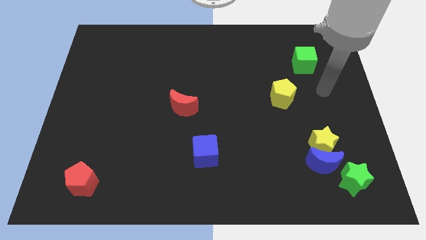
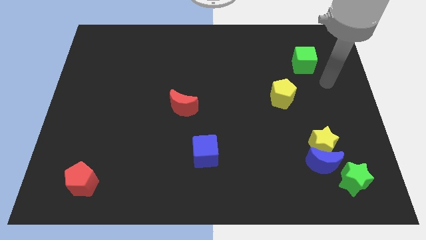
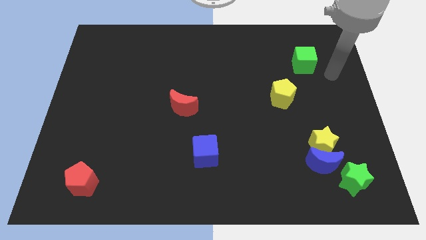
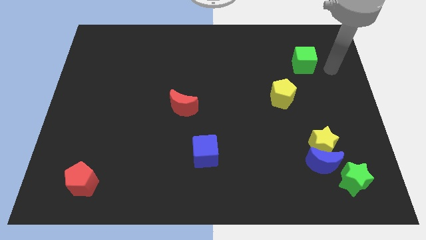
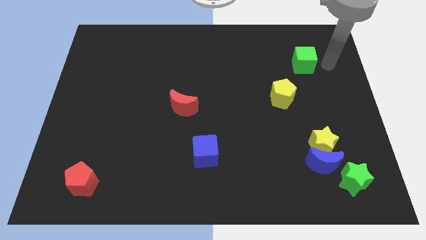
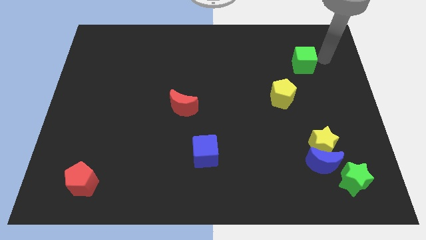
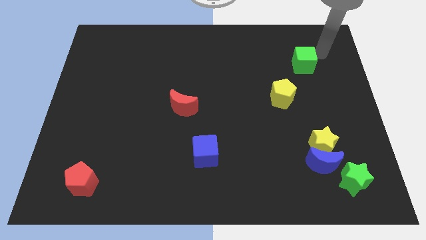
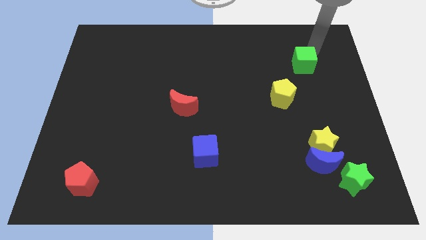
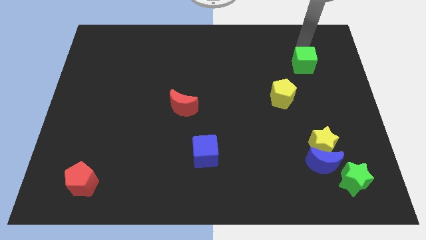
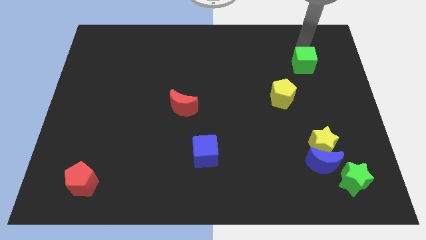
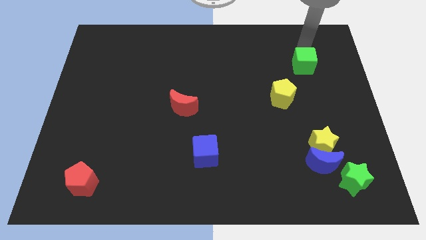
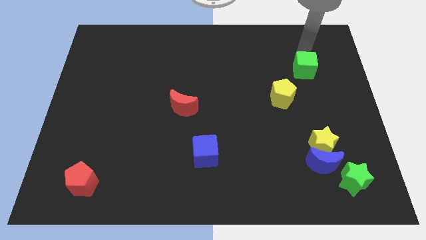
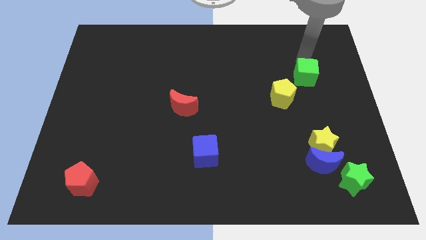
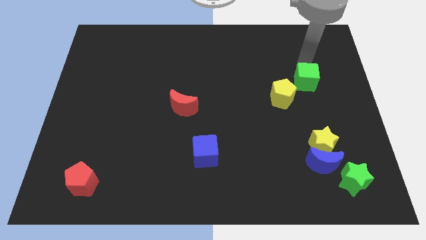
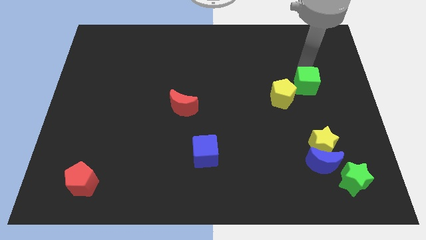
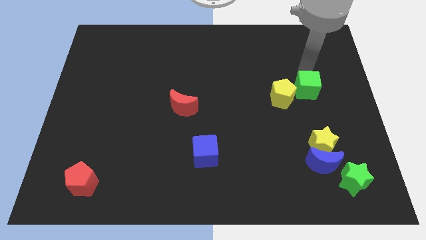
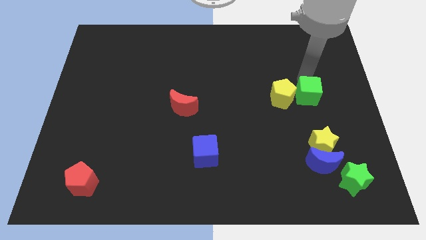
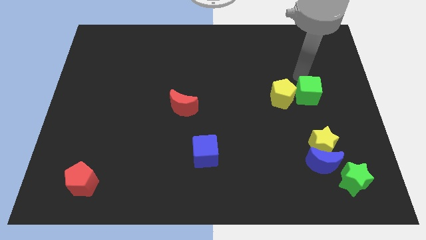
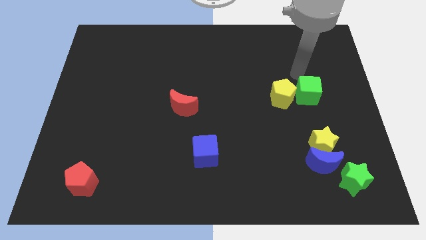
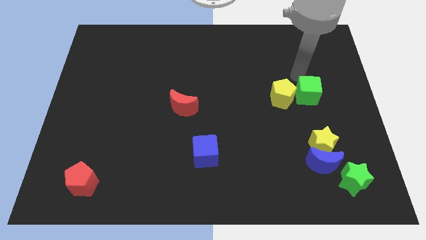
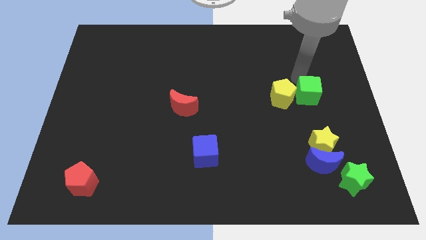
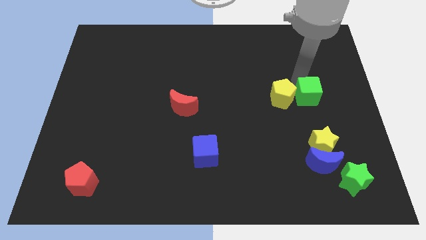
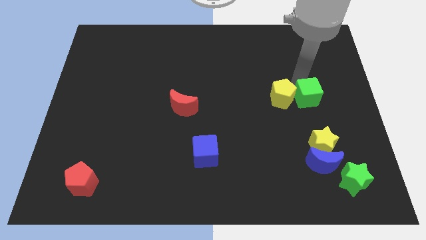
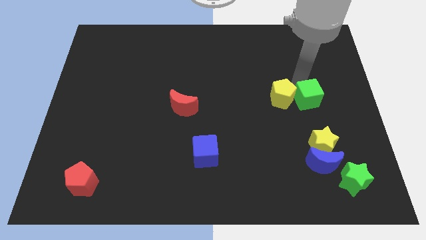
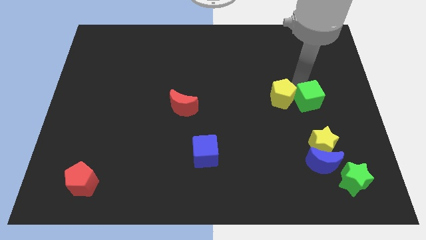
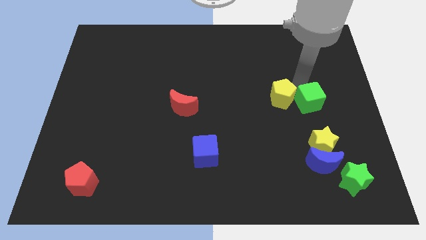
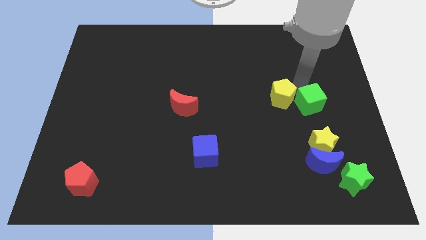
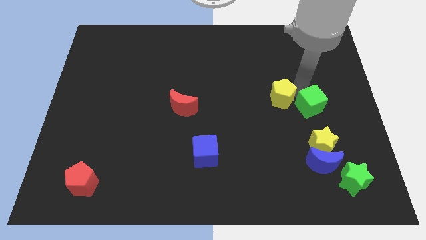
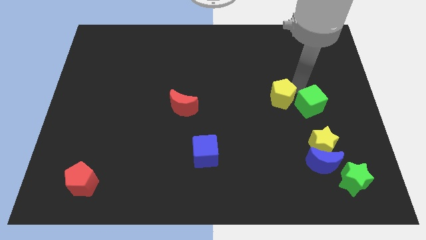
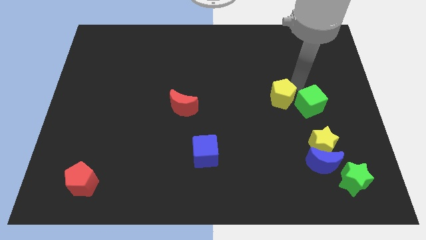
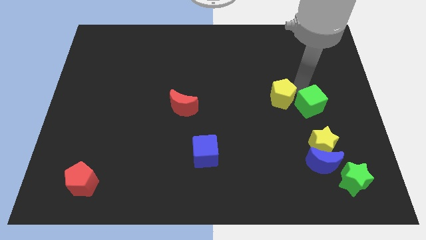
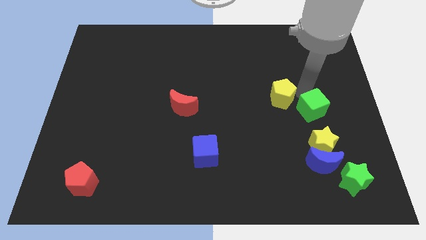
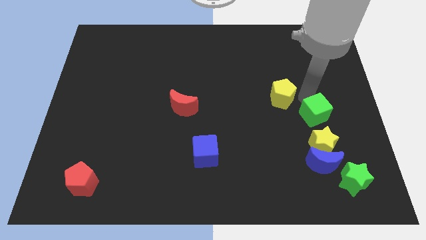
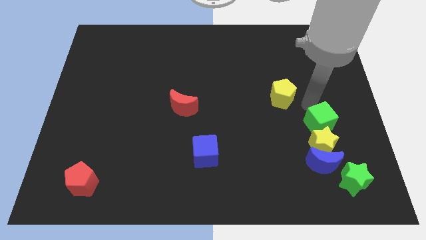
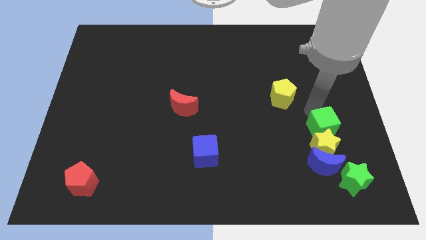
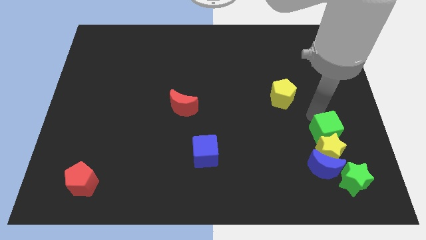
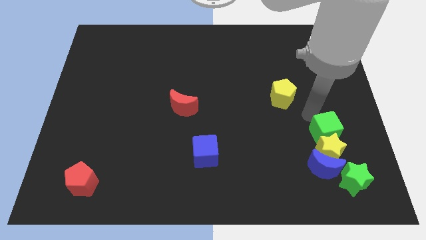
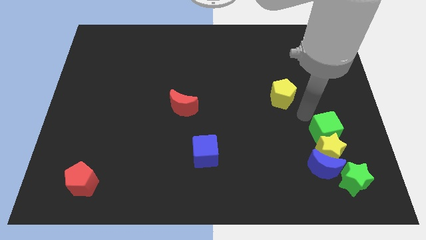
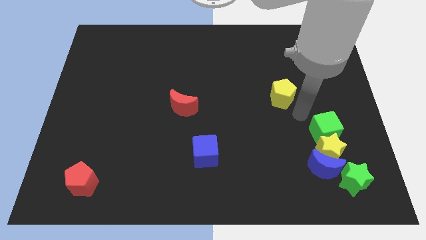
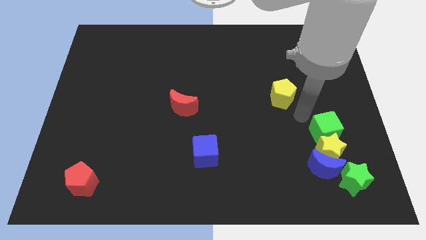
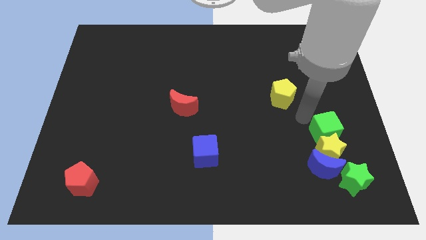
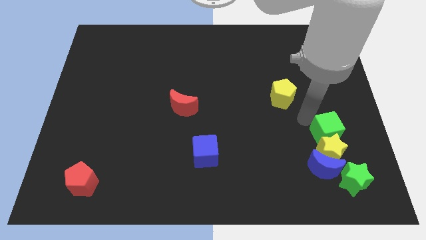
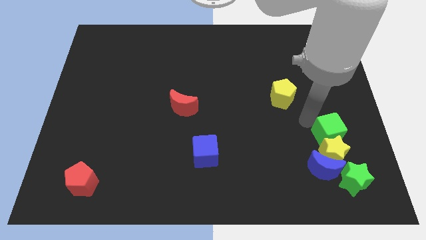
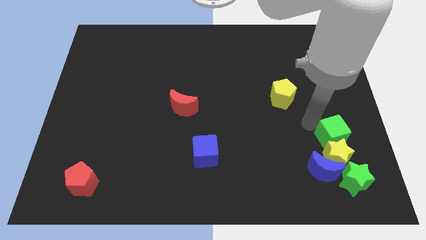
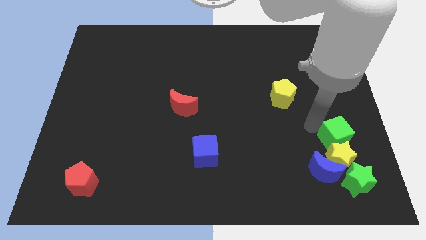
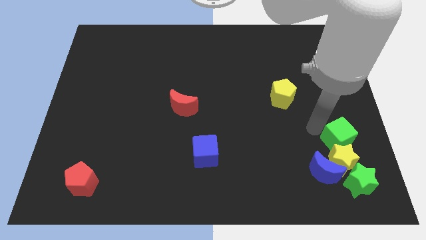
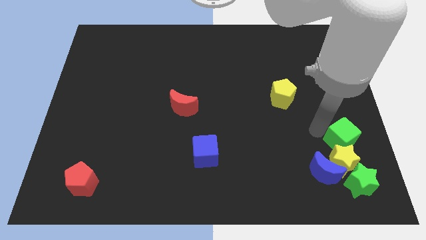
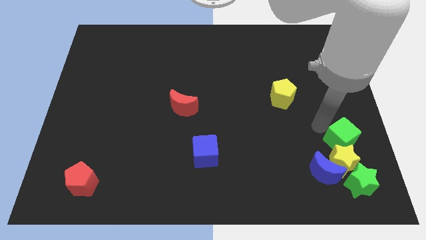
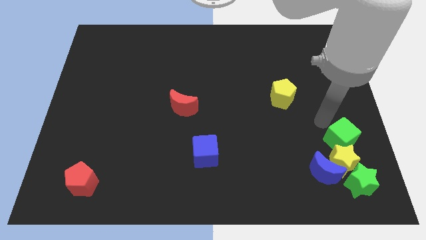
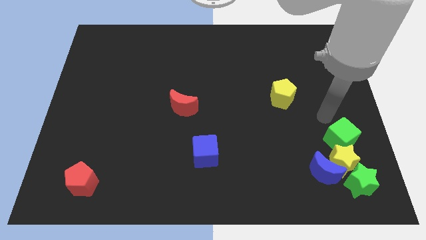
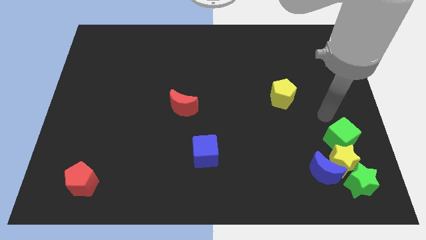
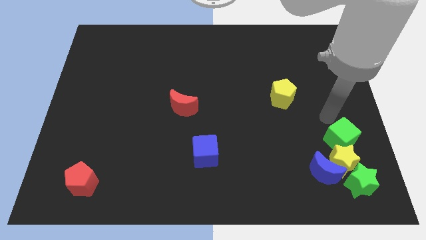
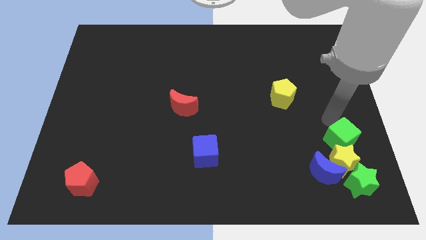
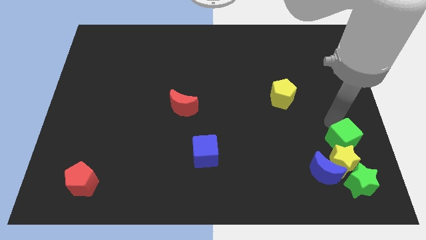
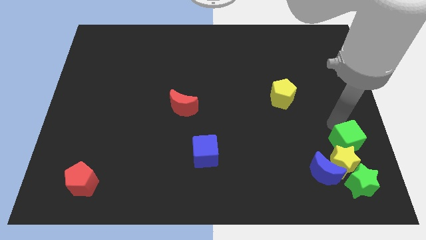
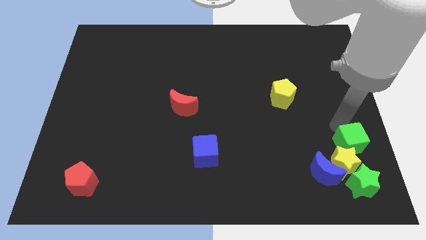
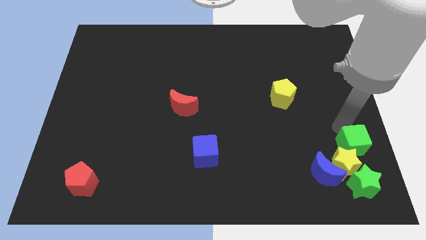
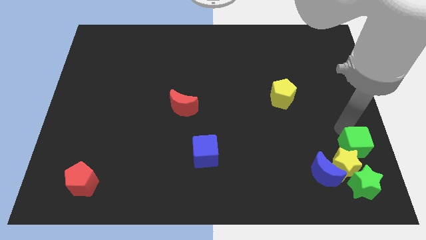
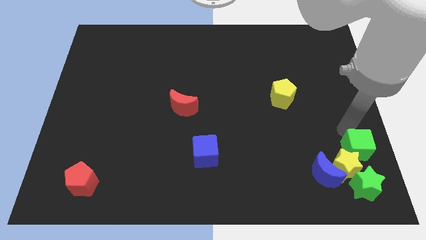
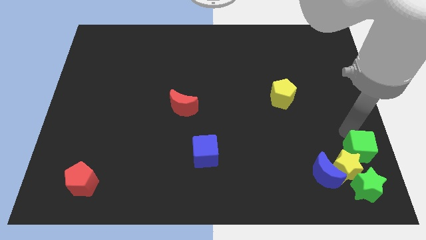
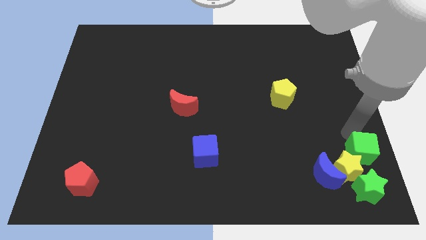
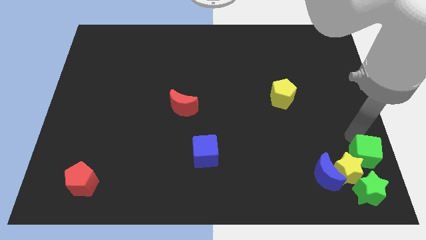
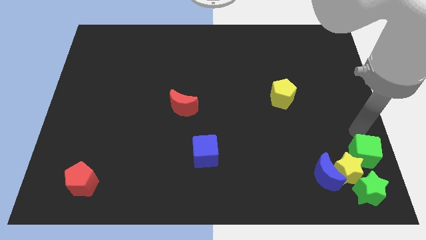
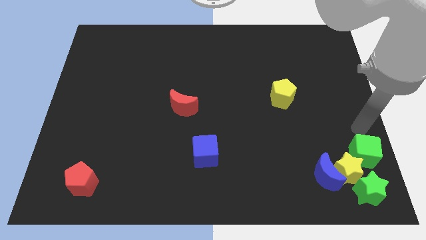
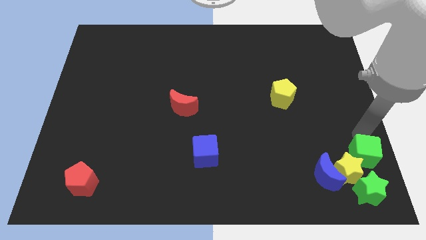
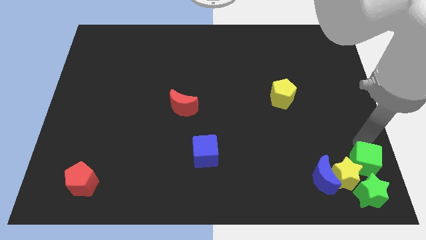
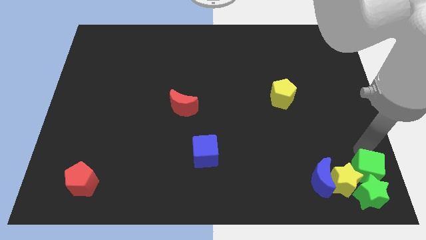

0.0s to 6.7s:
move the green cube towards the green star

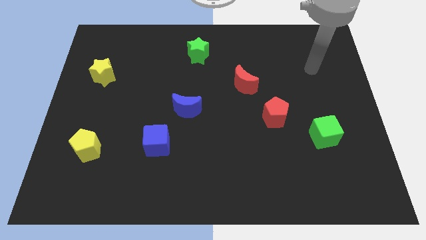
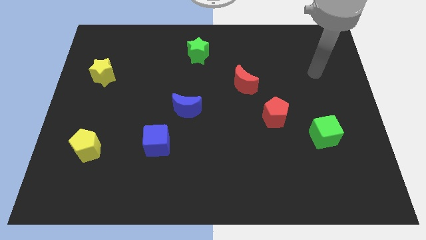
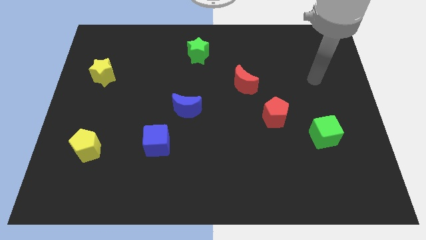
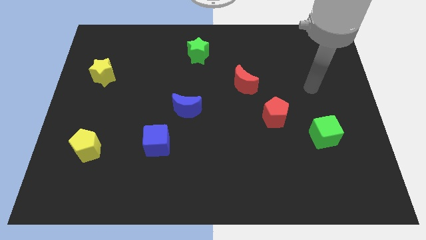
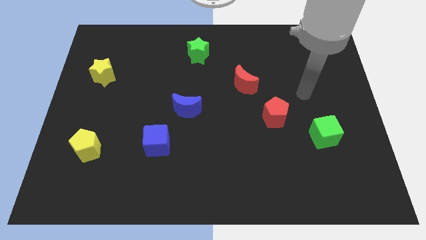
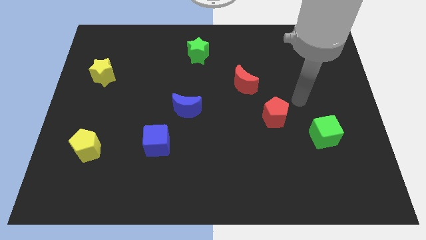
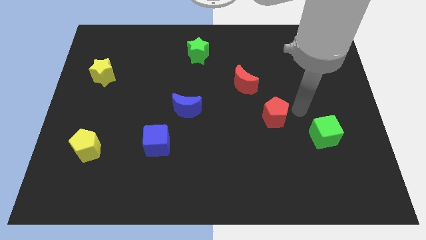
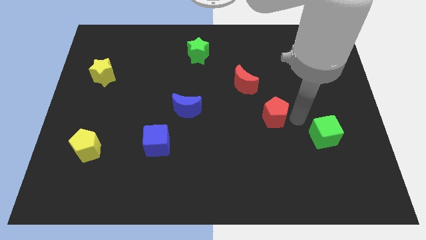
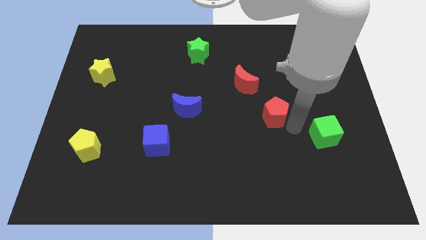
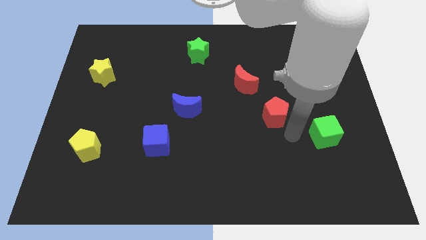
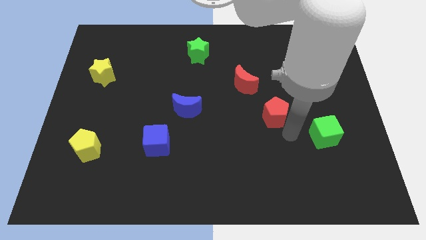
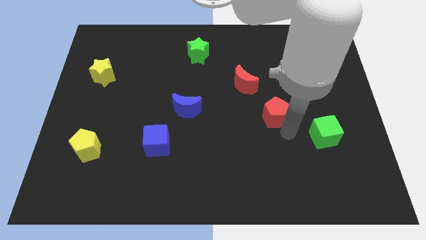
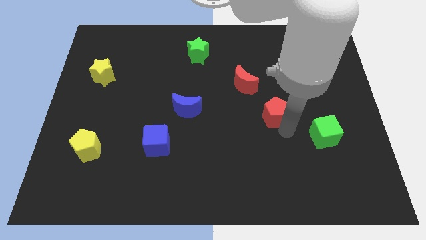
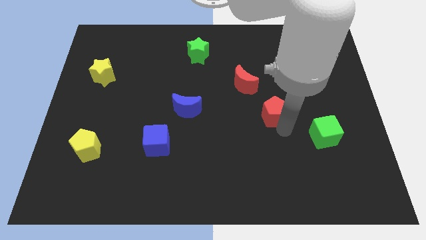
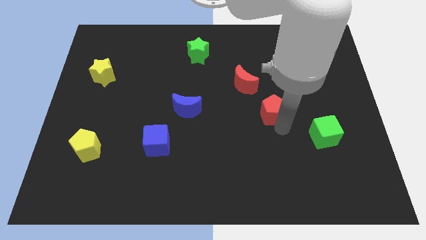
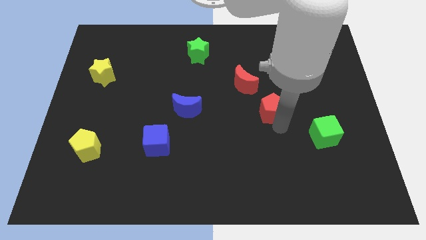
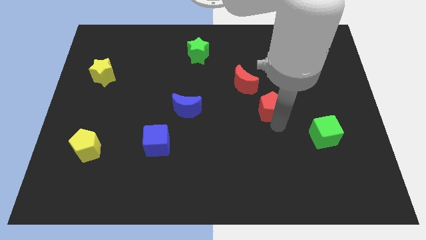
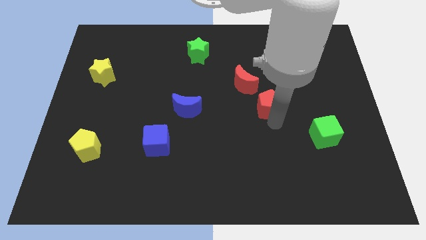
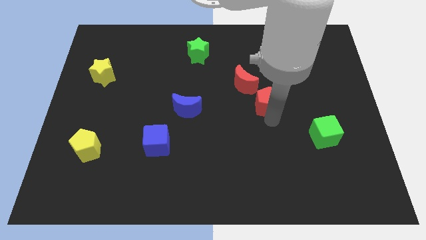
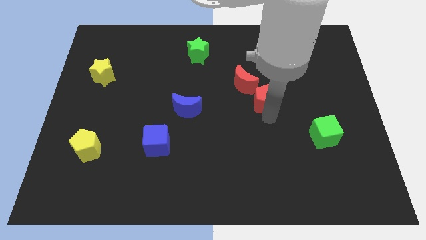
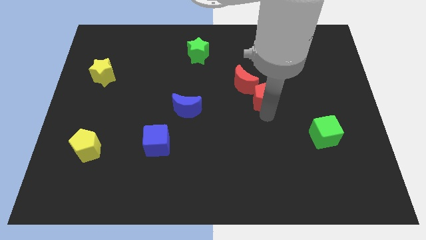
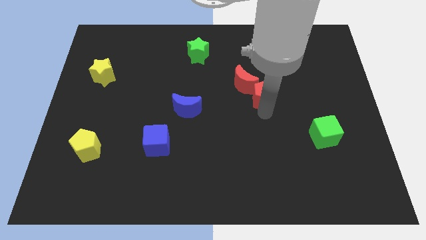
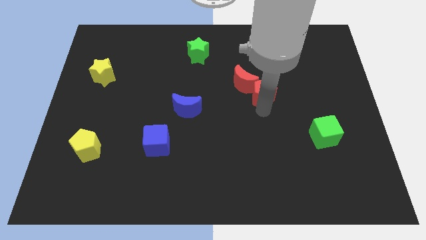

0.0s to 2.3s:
put the red pentagon next to the red moon
